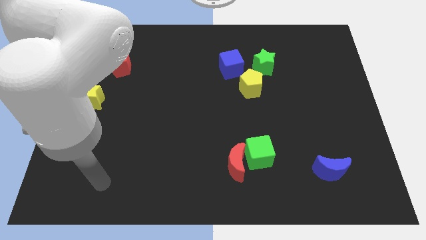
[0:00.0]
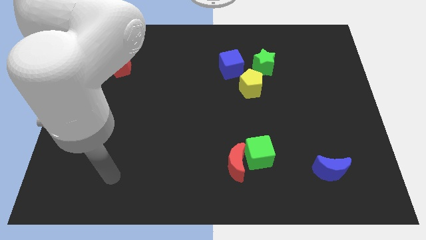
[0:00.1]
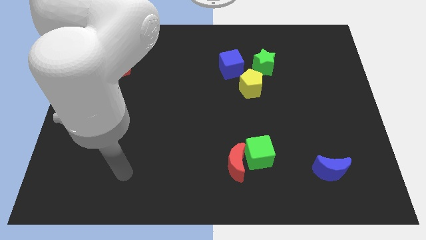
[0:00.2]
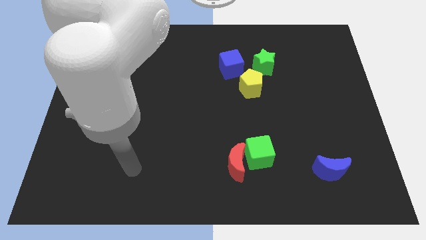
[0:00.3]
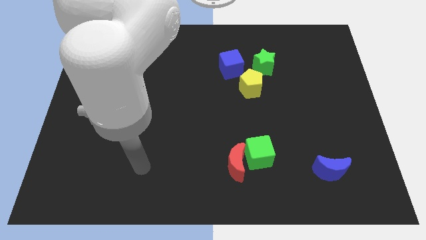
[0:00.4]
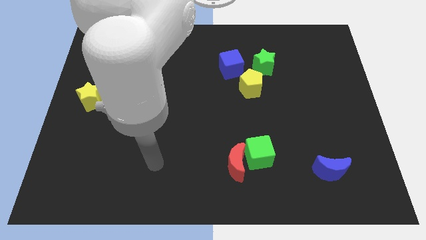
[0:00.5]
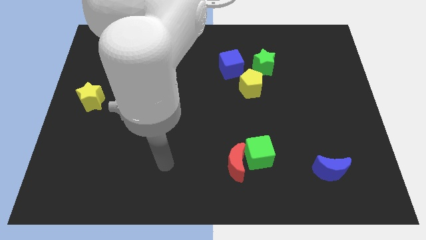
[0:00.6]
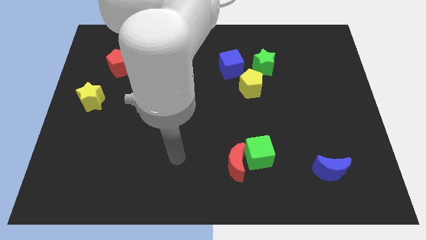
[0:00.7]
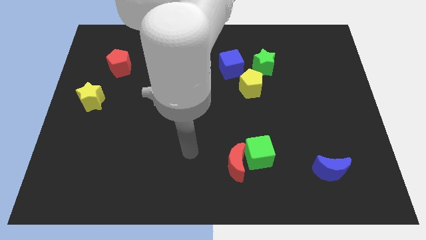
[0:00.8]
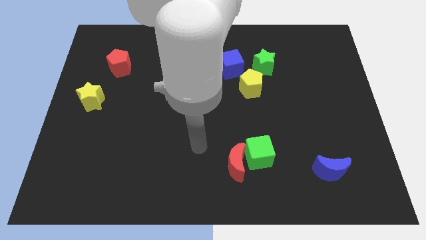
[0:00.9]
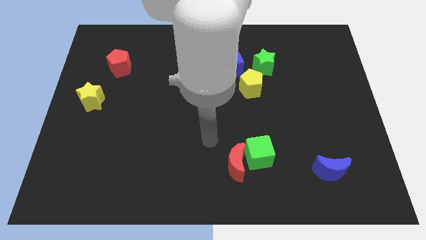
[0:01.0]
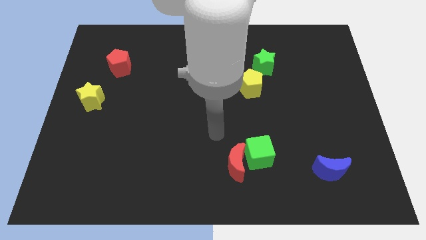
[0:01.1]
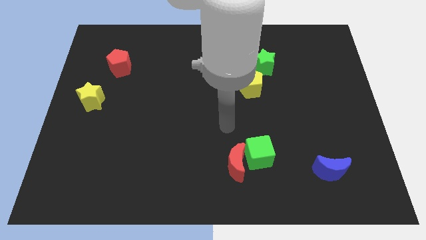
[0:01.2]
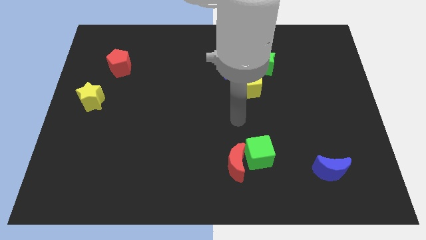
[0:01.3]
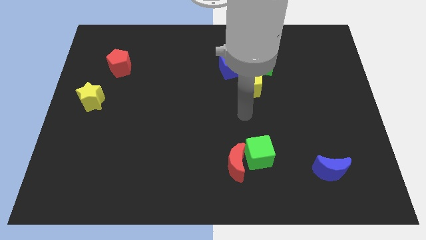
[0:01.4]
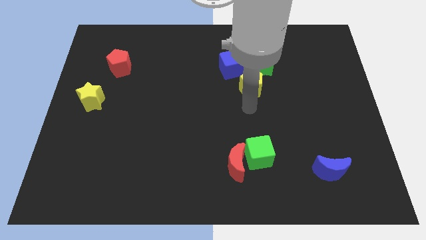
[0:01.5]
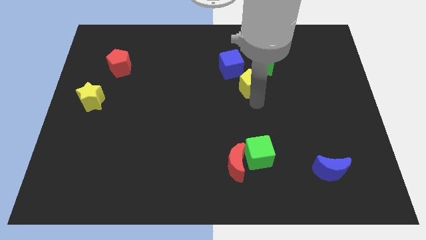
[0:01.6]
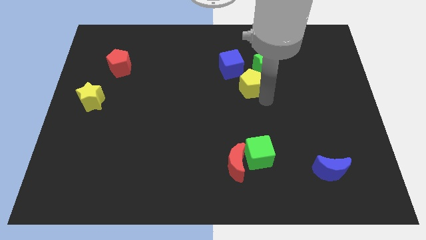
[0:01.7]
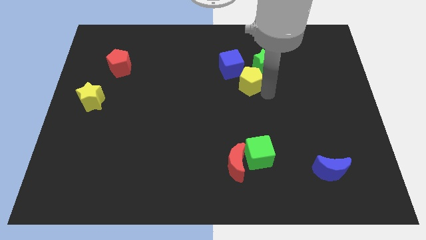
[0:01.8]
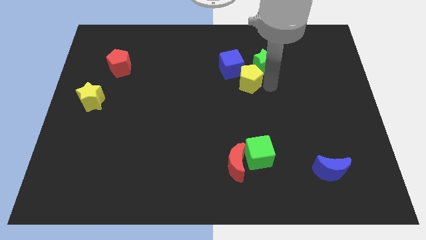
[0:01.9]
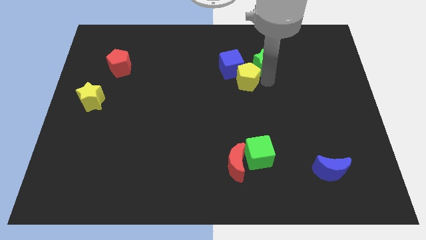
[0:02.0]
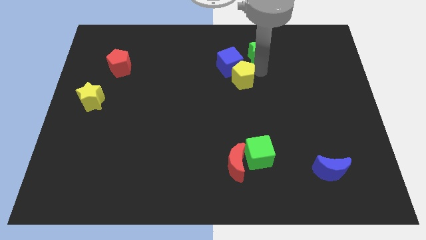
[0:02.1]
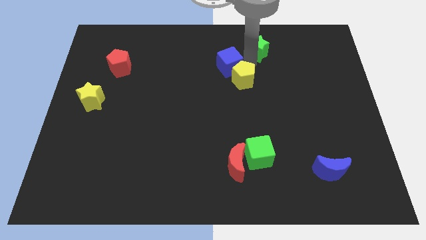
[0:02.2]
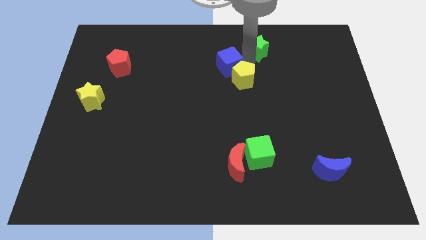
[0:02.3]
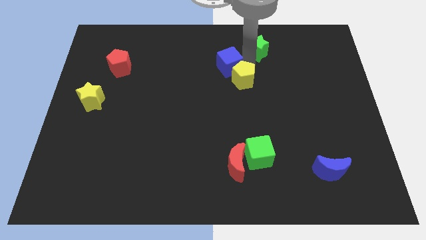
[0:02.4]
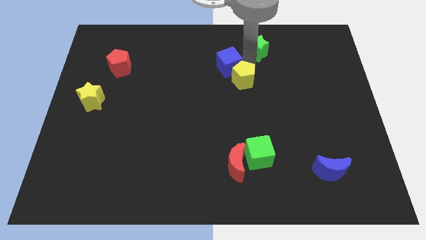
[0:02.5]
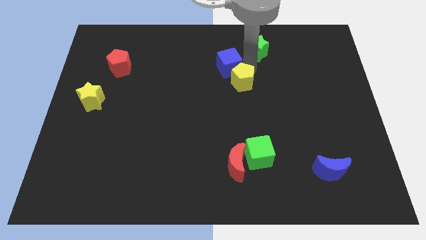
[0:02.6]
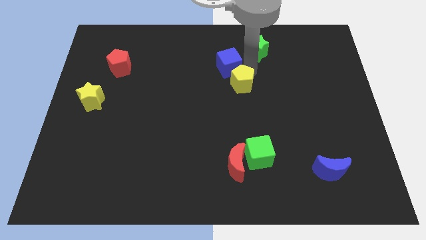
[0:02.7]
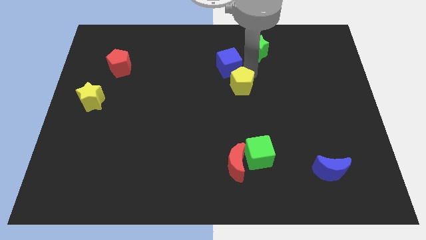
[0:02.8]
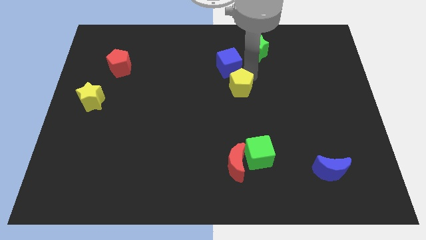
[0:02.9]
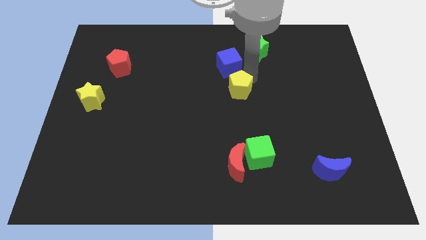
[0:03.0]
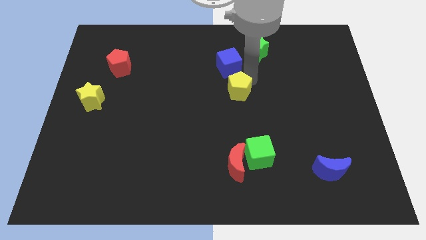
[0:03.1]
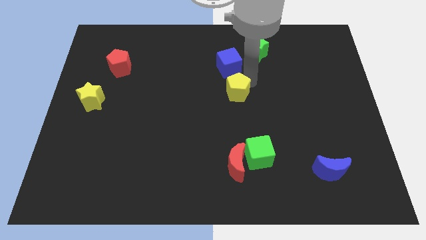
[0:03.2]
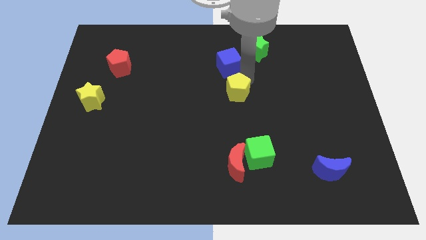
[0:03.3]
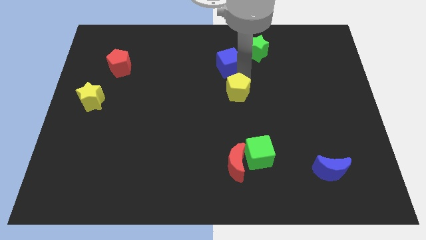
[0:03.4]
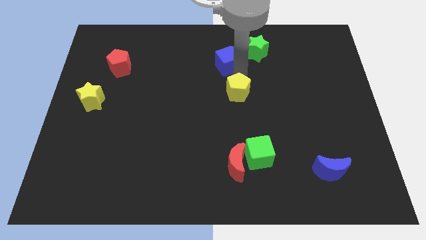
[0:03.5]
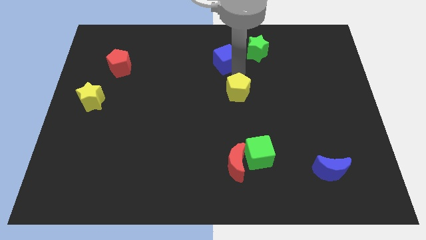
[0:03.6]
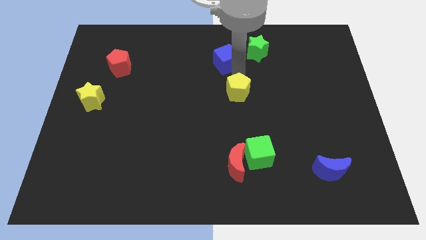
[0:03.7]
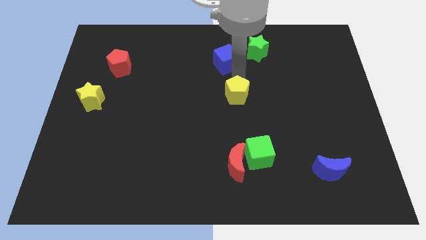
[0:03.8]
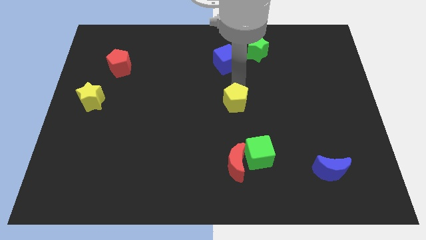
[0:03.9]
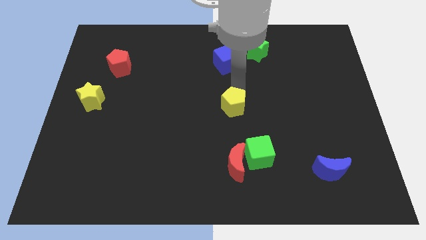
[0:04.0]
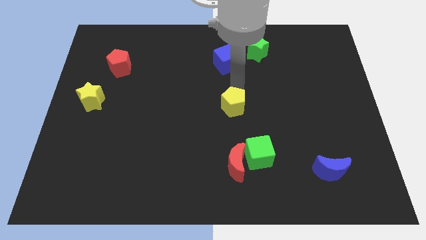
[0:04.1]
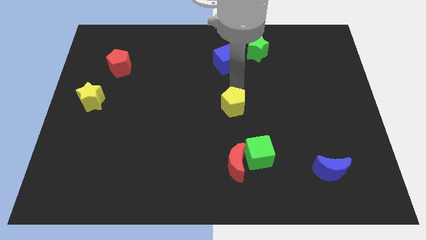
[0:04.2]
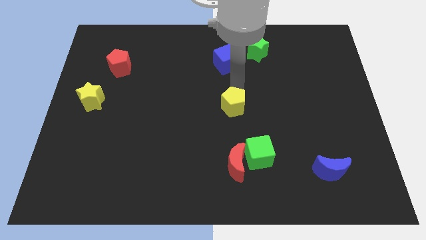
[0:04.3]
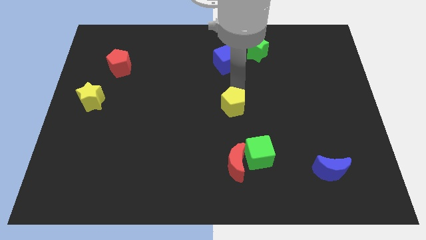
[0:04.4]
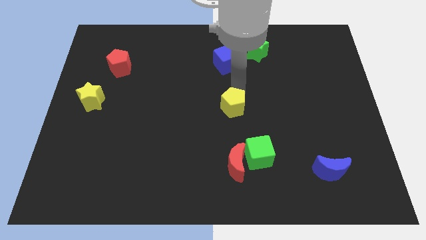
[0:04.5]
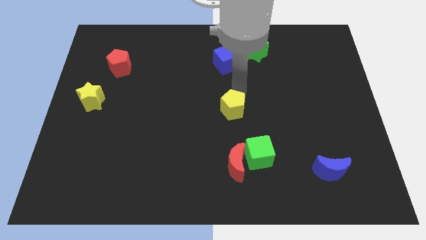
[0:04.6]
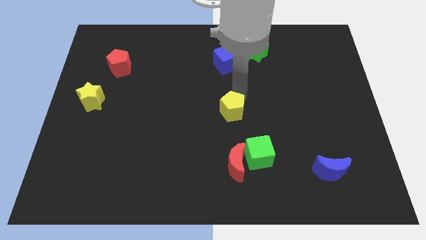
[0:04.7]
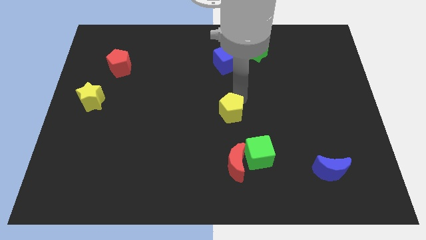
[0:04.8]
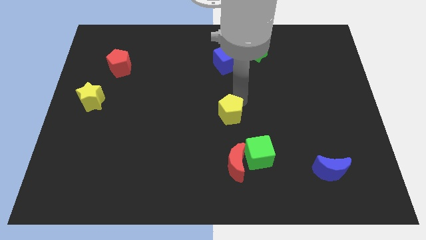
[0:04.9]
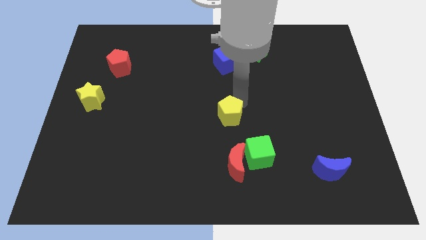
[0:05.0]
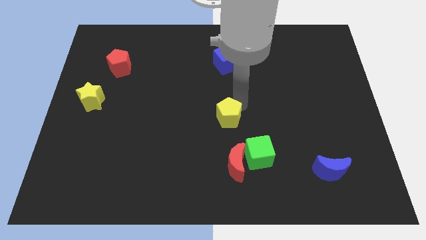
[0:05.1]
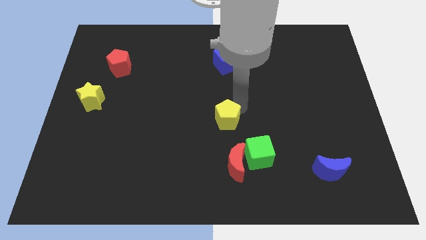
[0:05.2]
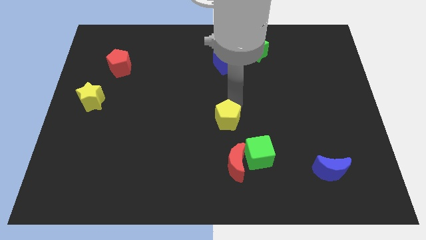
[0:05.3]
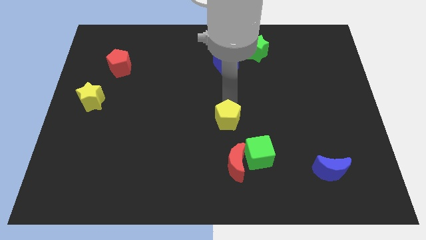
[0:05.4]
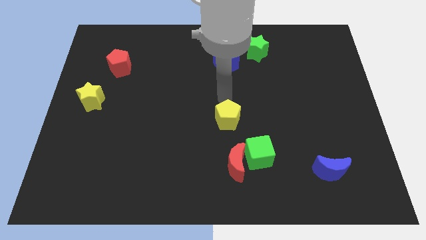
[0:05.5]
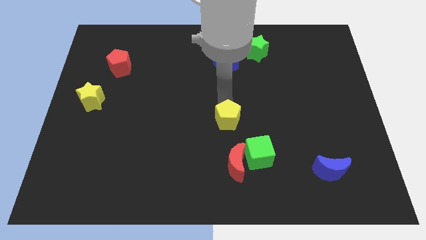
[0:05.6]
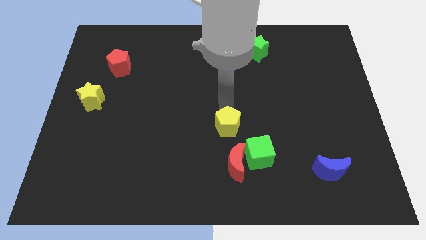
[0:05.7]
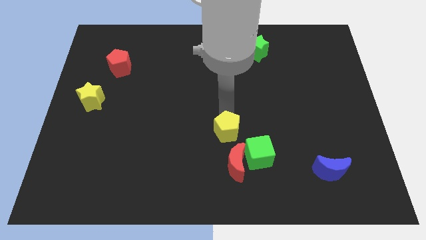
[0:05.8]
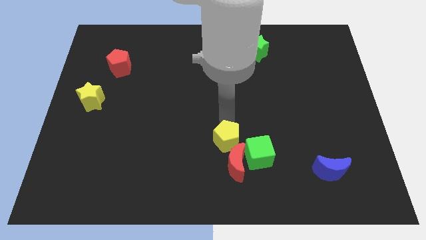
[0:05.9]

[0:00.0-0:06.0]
put the yellow pentagon towards the red moon

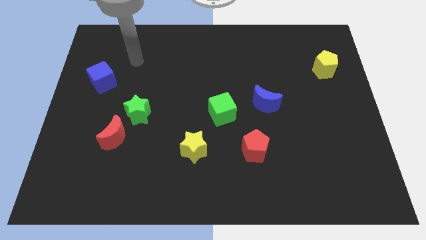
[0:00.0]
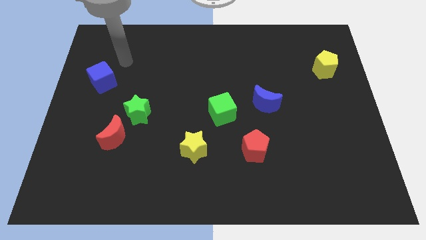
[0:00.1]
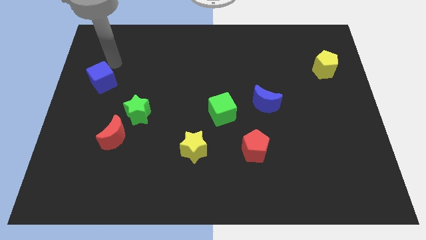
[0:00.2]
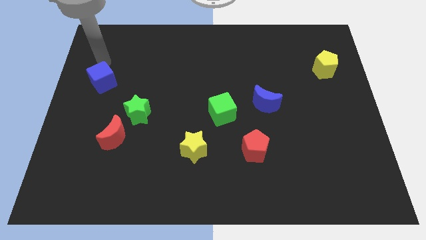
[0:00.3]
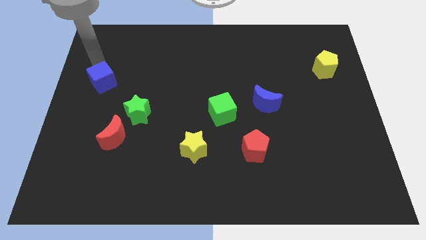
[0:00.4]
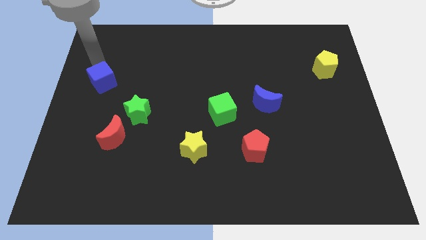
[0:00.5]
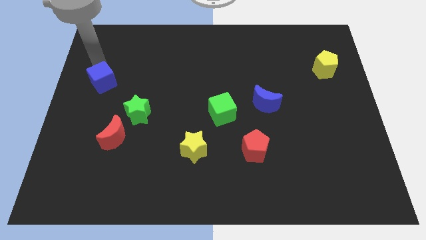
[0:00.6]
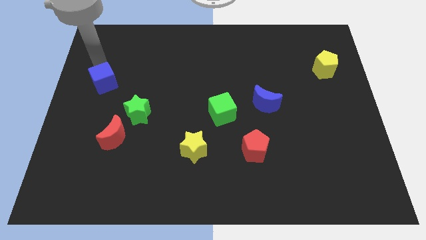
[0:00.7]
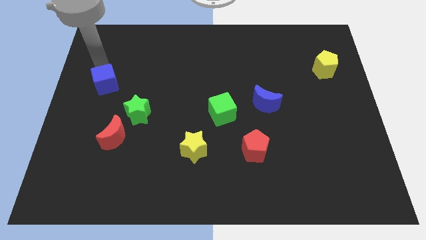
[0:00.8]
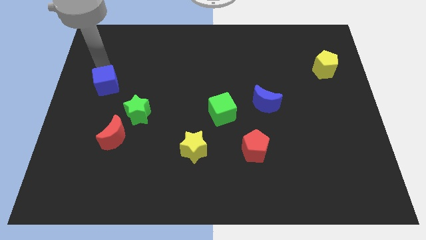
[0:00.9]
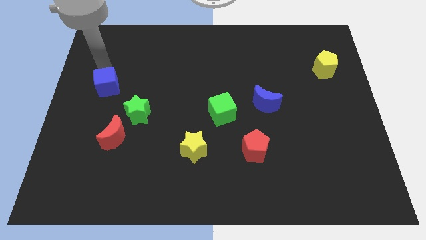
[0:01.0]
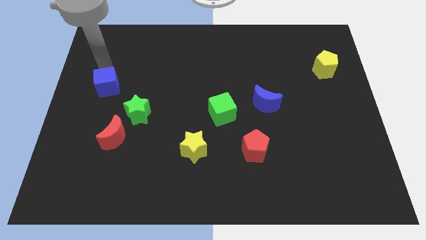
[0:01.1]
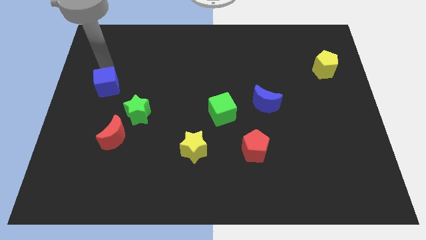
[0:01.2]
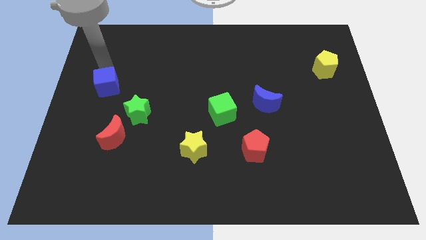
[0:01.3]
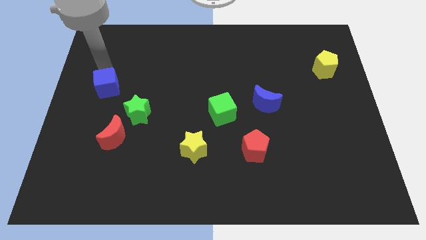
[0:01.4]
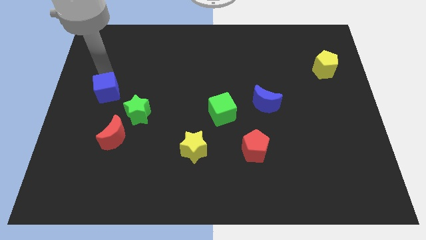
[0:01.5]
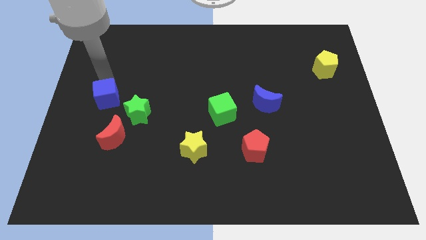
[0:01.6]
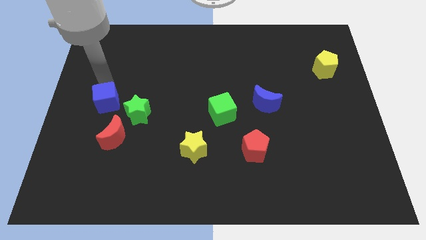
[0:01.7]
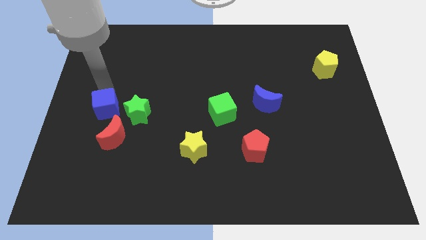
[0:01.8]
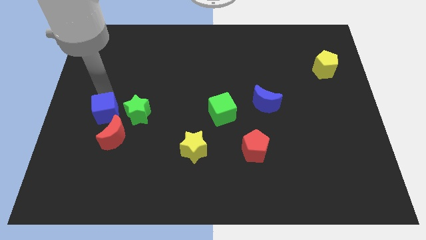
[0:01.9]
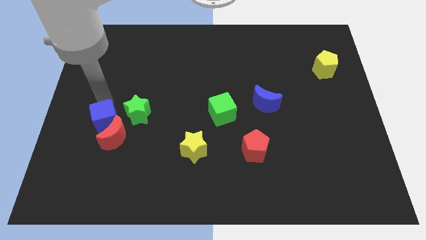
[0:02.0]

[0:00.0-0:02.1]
put the blue cube close to the red moon
